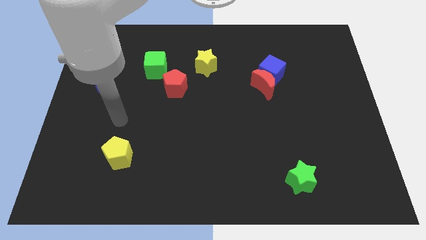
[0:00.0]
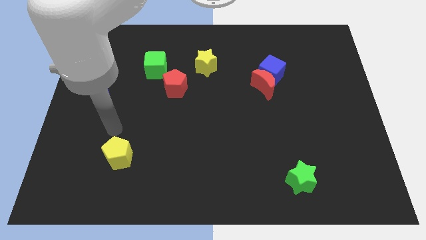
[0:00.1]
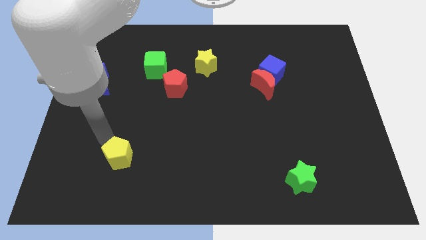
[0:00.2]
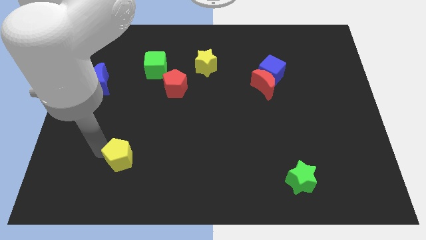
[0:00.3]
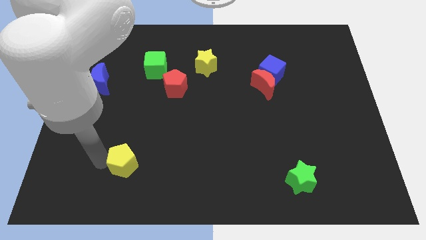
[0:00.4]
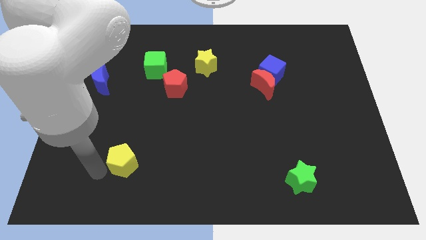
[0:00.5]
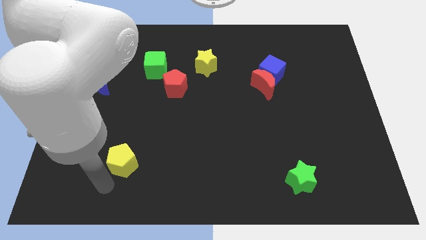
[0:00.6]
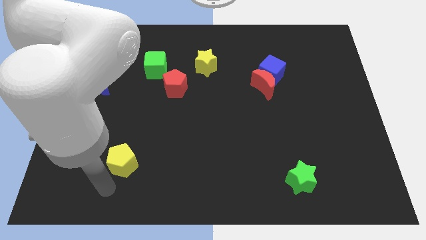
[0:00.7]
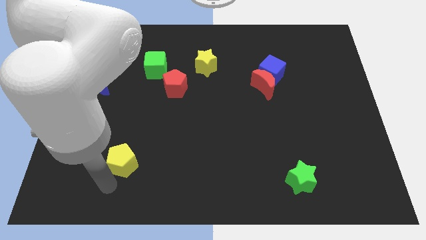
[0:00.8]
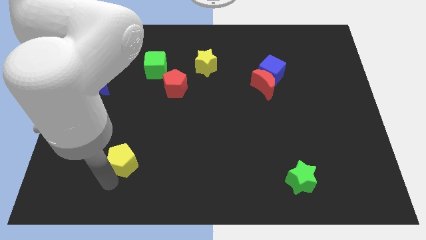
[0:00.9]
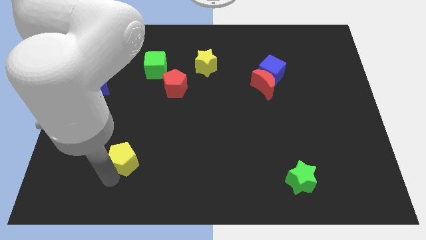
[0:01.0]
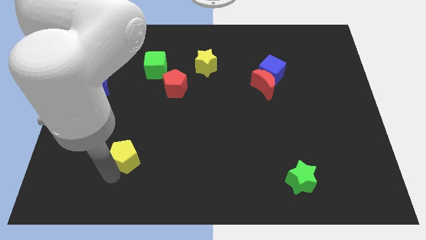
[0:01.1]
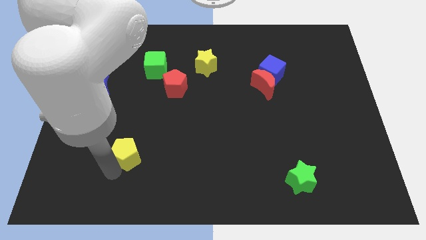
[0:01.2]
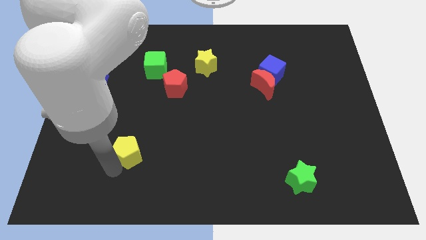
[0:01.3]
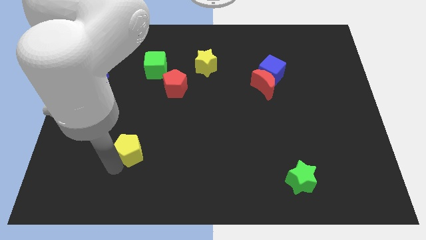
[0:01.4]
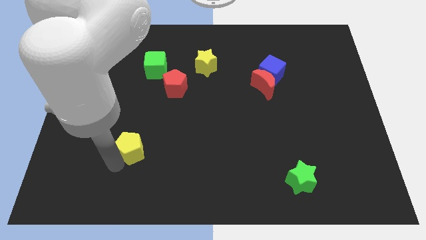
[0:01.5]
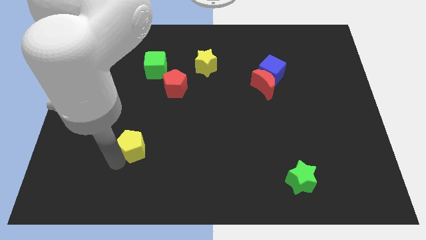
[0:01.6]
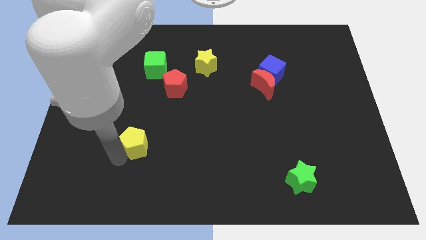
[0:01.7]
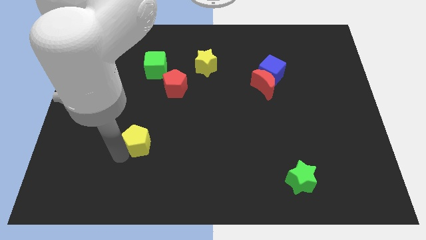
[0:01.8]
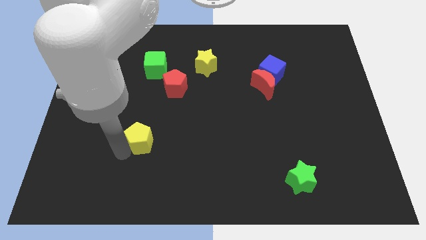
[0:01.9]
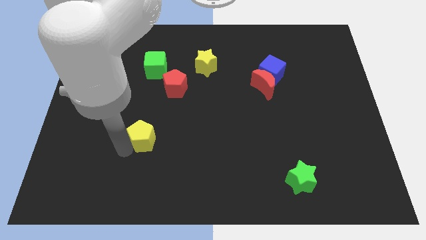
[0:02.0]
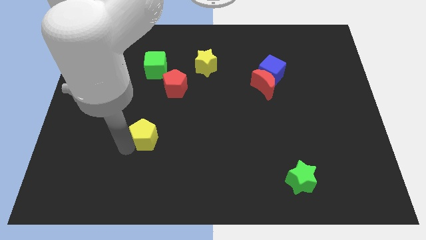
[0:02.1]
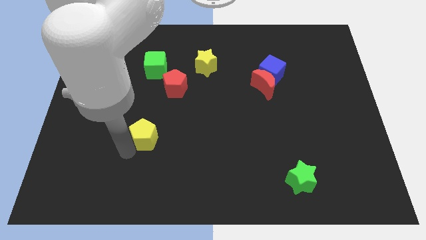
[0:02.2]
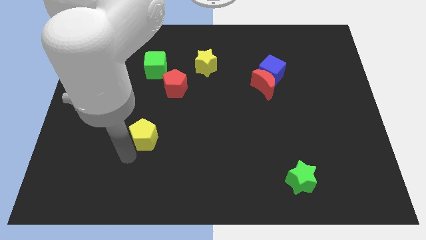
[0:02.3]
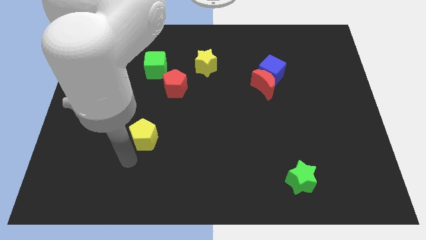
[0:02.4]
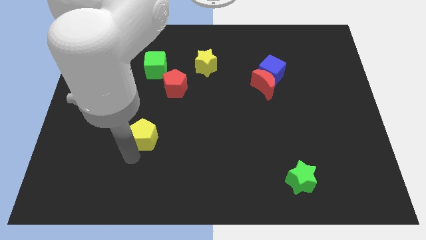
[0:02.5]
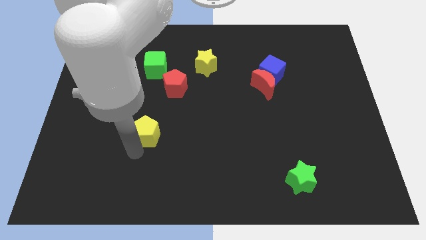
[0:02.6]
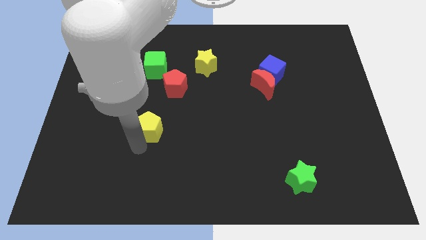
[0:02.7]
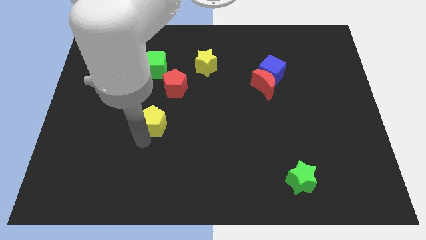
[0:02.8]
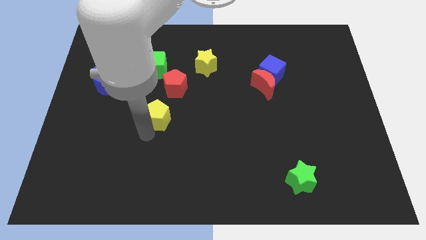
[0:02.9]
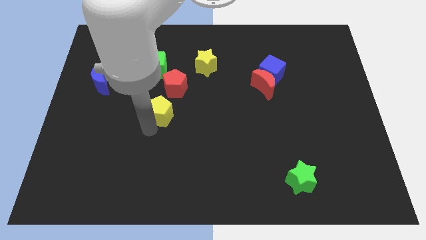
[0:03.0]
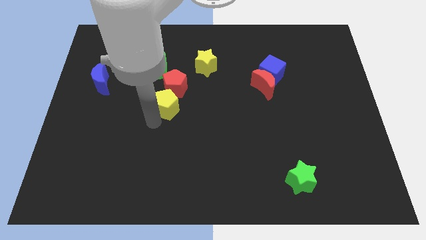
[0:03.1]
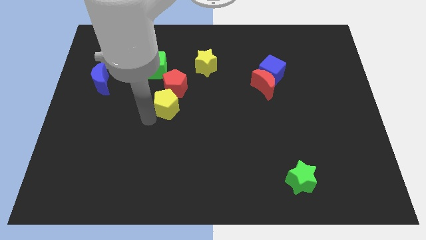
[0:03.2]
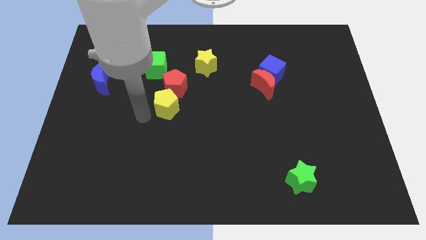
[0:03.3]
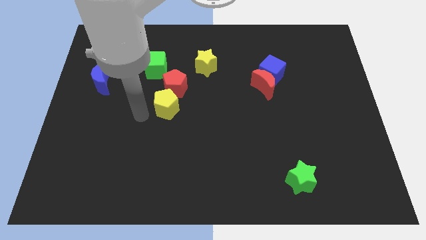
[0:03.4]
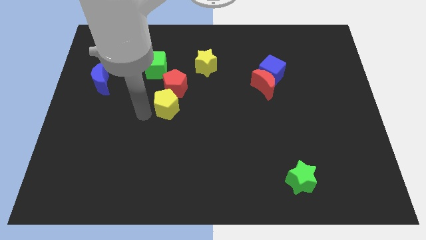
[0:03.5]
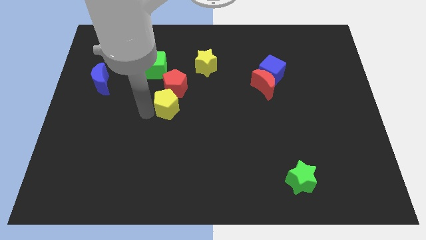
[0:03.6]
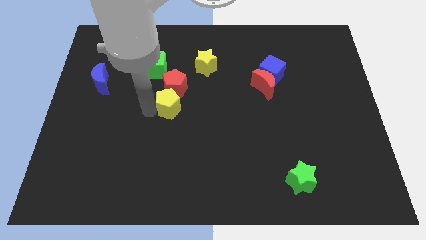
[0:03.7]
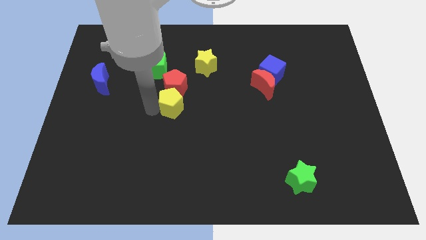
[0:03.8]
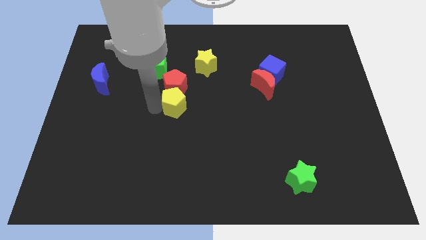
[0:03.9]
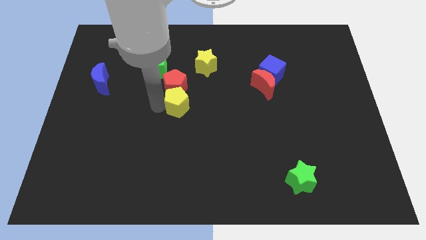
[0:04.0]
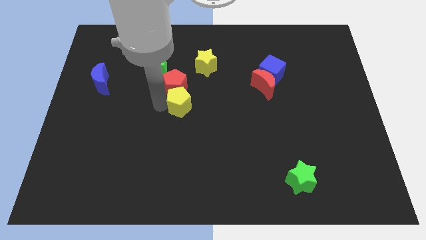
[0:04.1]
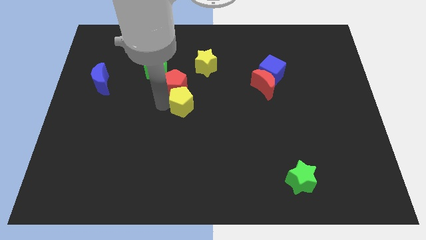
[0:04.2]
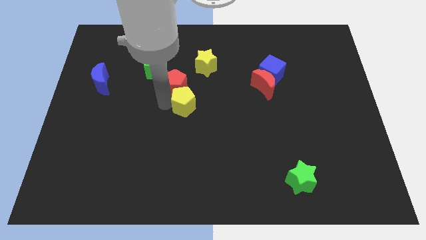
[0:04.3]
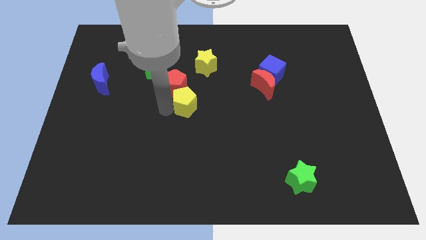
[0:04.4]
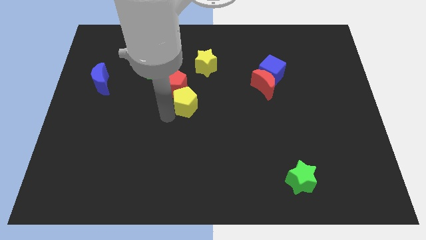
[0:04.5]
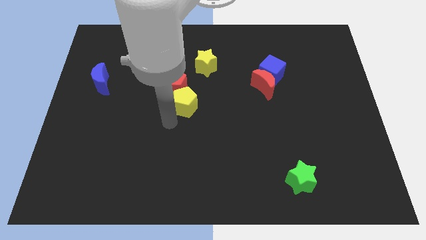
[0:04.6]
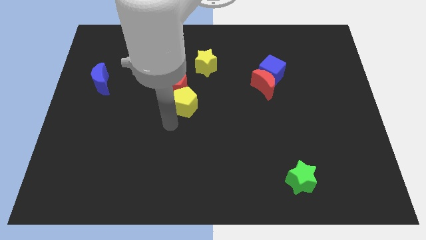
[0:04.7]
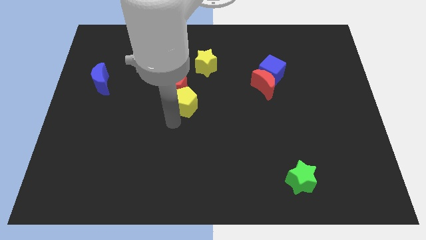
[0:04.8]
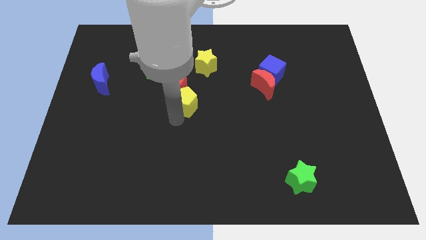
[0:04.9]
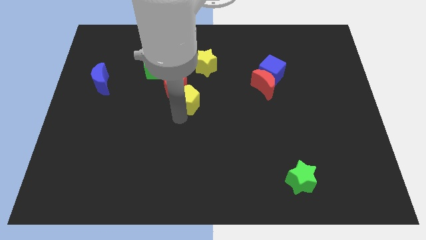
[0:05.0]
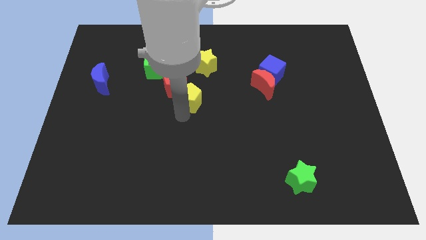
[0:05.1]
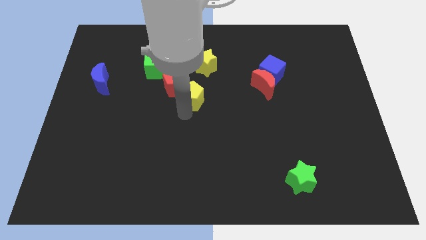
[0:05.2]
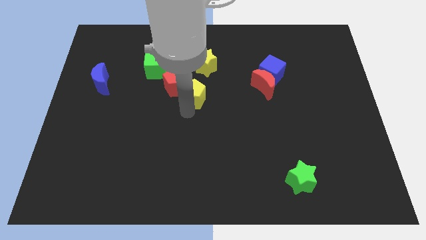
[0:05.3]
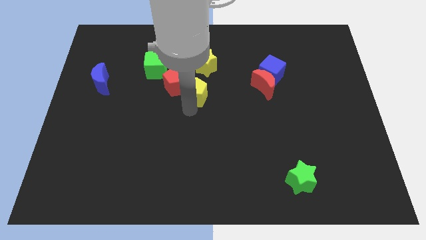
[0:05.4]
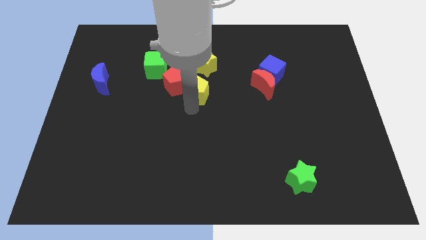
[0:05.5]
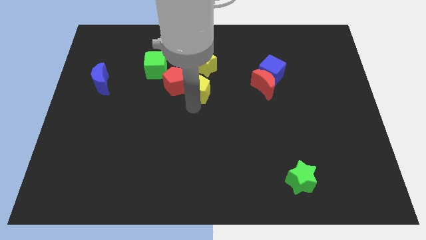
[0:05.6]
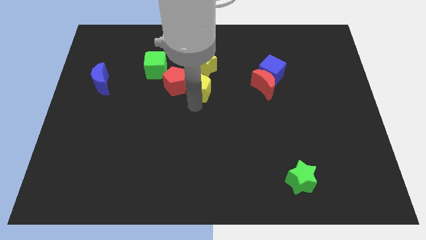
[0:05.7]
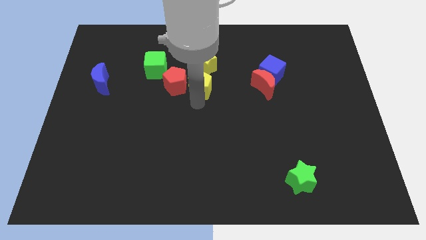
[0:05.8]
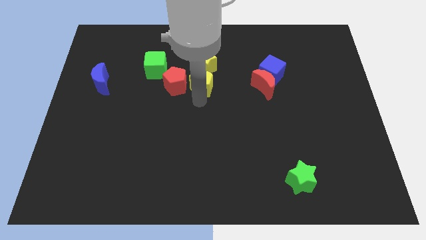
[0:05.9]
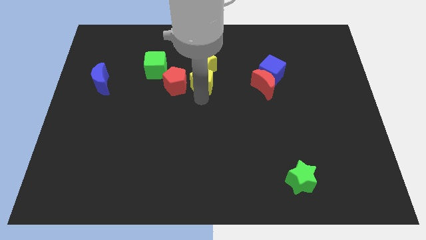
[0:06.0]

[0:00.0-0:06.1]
move the yellow pentagon close to the yellow star

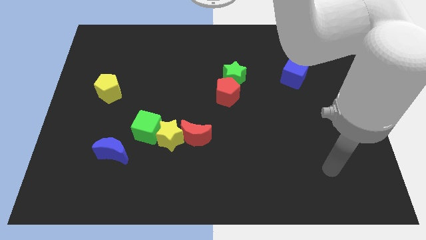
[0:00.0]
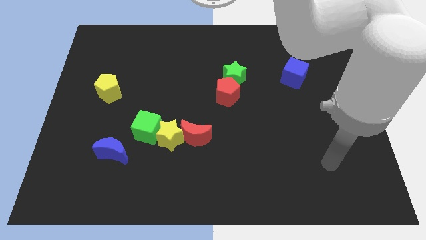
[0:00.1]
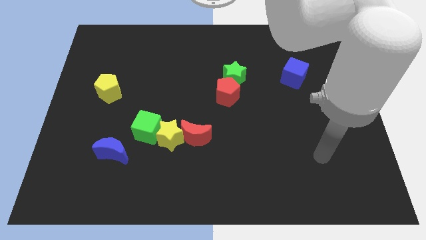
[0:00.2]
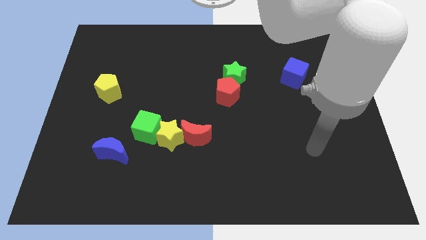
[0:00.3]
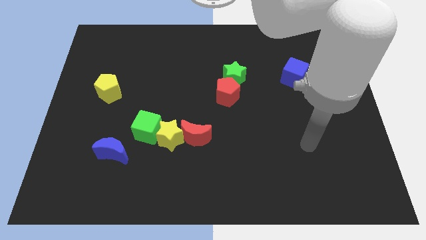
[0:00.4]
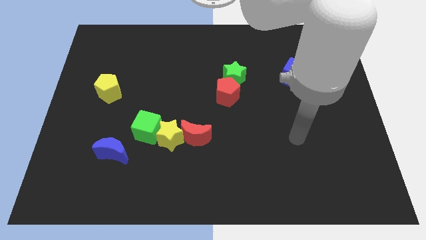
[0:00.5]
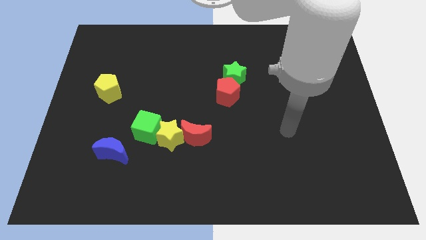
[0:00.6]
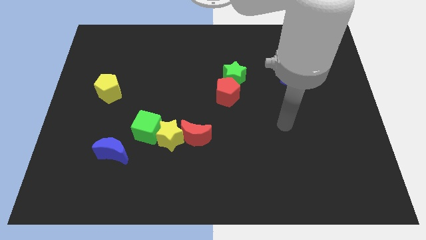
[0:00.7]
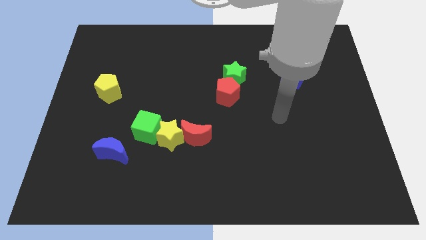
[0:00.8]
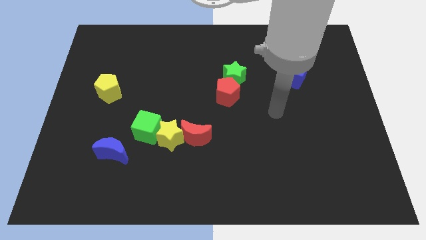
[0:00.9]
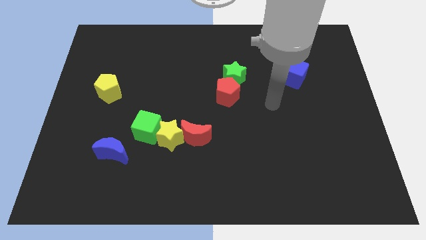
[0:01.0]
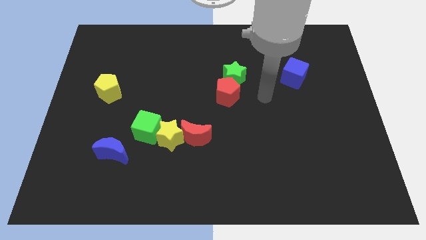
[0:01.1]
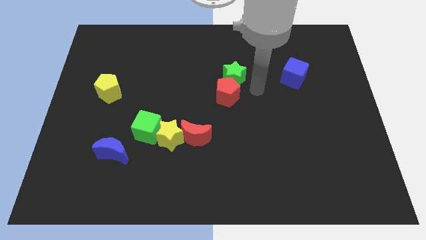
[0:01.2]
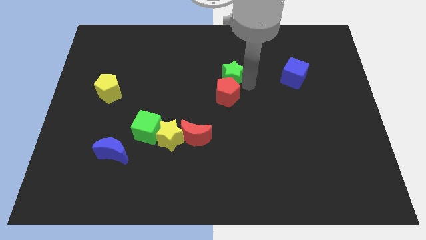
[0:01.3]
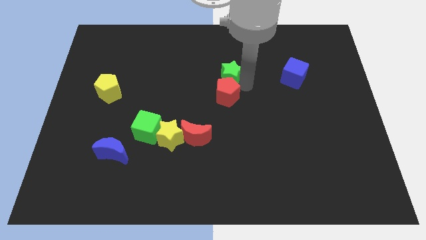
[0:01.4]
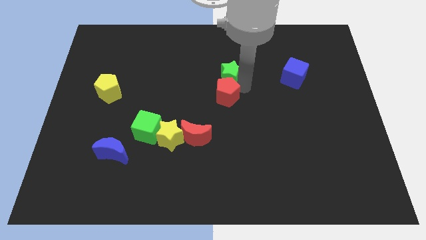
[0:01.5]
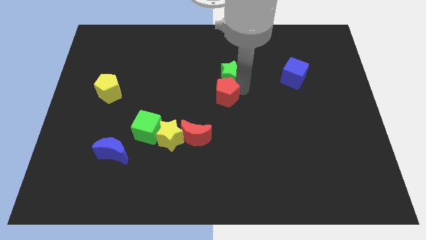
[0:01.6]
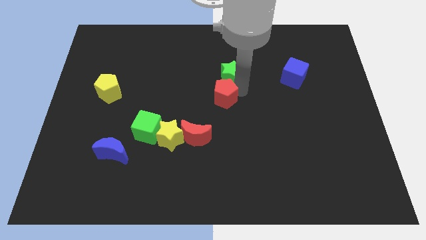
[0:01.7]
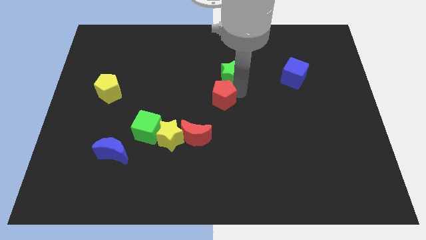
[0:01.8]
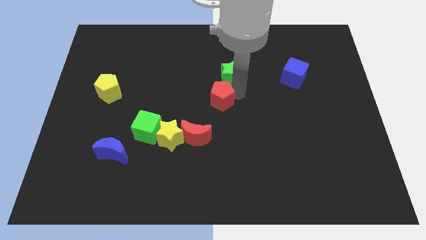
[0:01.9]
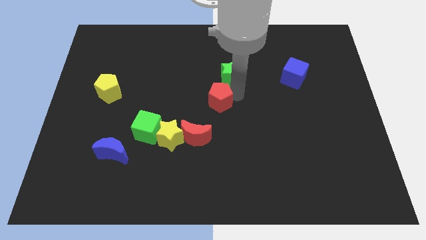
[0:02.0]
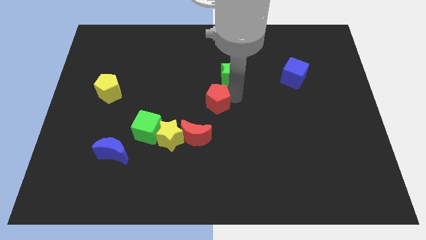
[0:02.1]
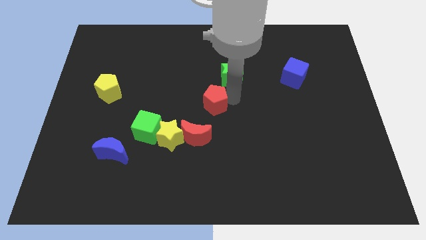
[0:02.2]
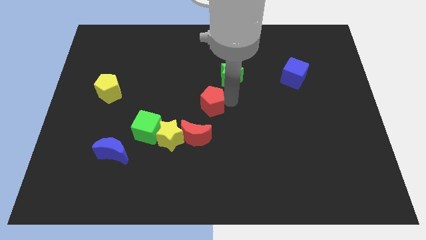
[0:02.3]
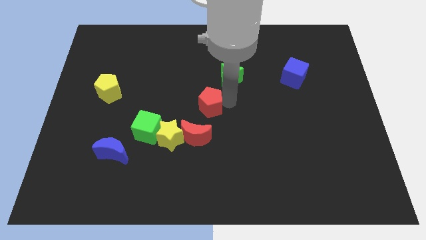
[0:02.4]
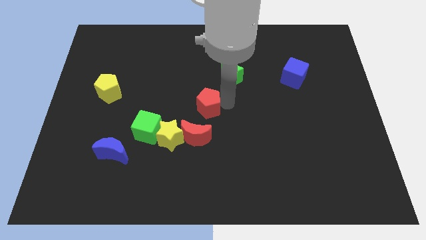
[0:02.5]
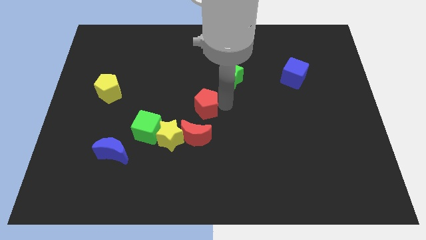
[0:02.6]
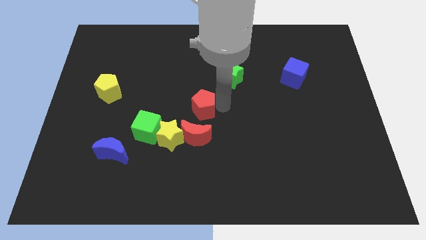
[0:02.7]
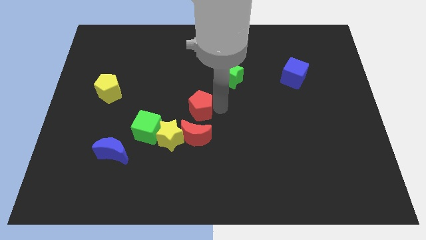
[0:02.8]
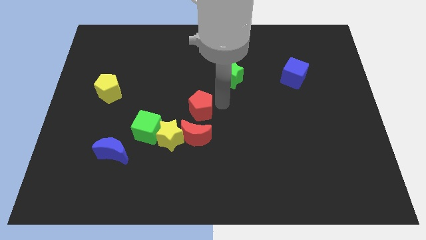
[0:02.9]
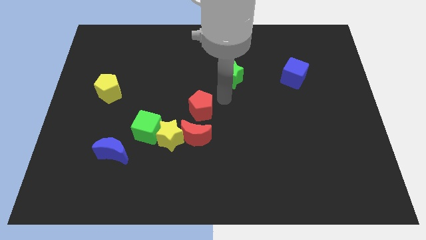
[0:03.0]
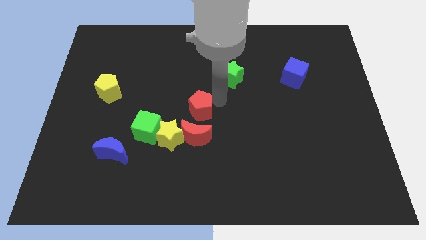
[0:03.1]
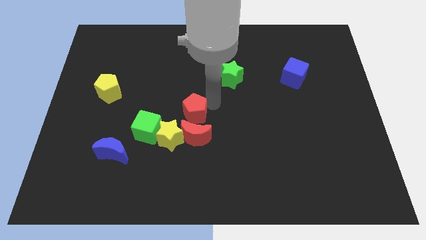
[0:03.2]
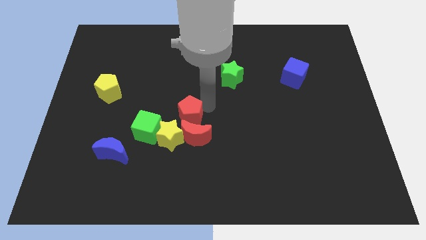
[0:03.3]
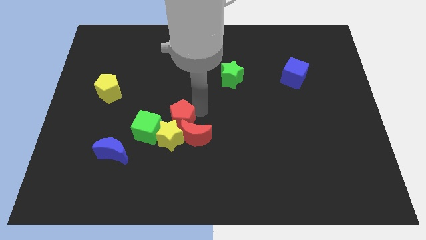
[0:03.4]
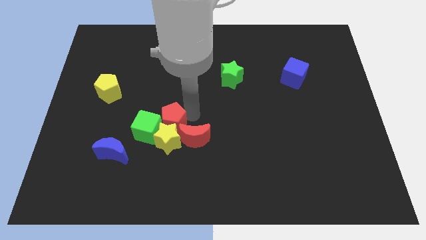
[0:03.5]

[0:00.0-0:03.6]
slide the red pentagon towards the green cube
